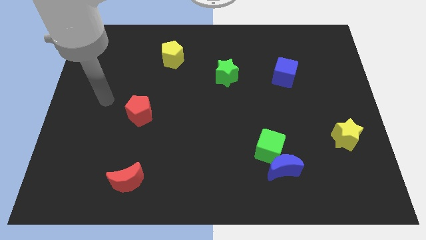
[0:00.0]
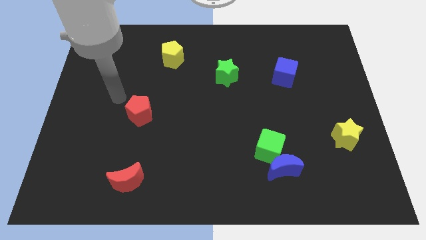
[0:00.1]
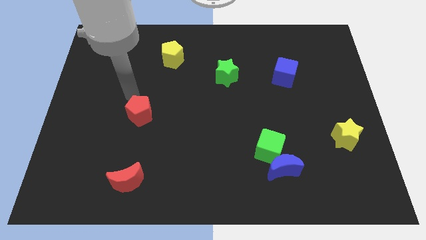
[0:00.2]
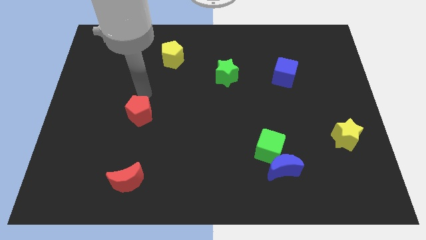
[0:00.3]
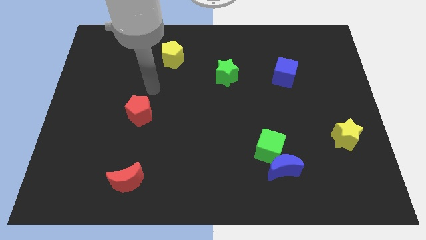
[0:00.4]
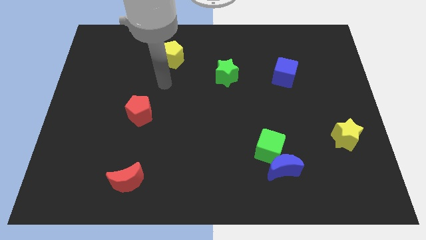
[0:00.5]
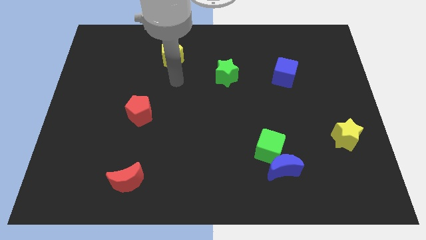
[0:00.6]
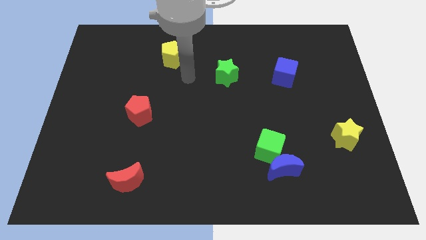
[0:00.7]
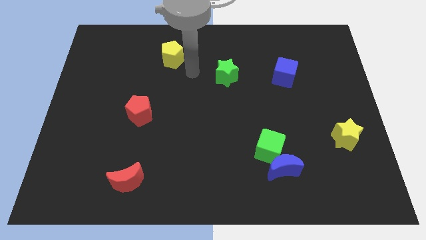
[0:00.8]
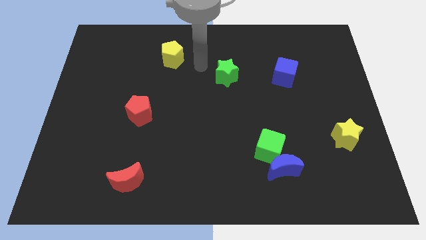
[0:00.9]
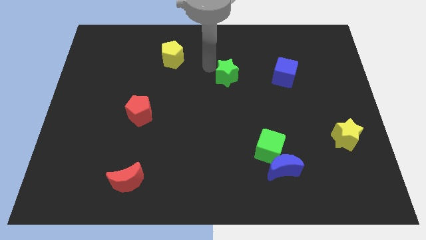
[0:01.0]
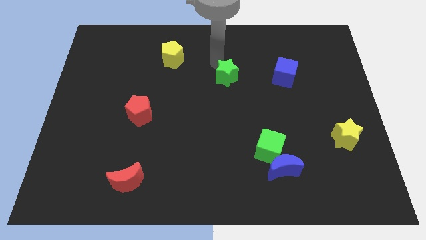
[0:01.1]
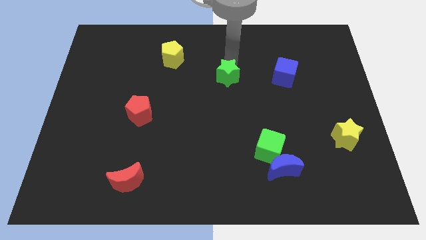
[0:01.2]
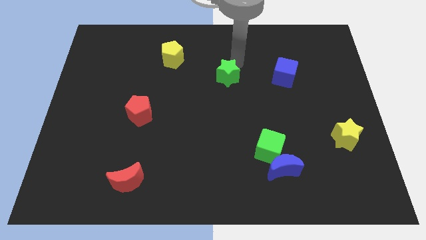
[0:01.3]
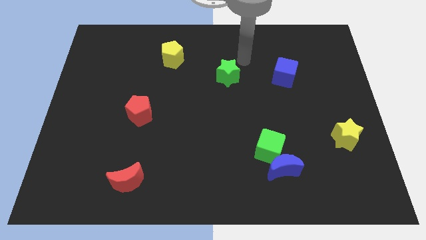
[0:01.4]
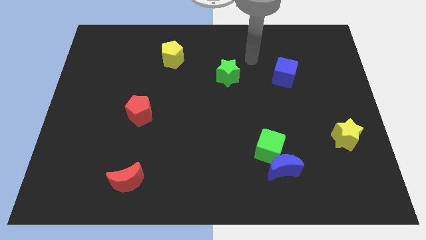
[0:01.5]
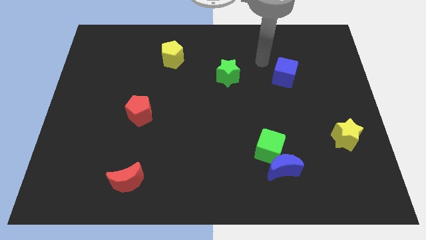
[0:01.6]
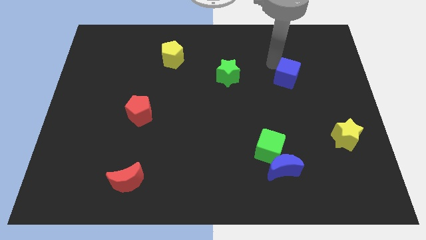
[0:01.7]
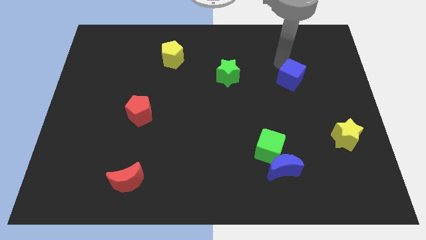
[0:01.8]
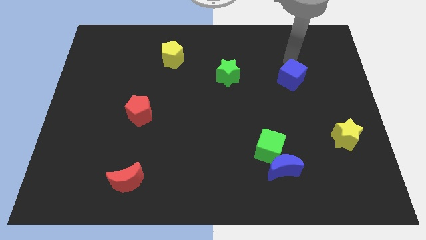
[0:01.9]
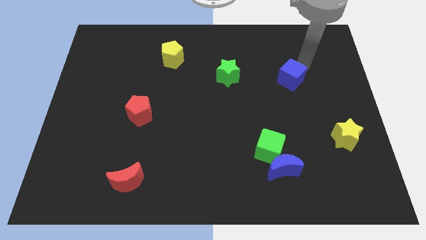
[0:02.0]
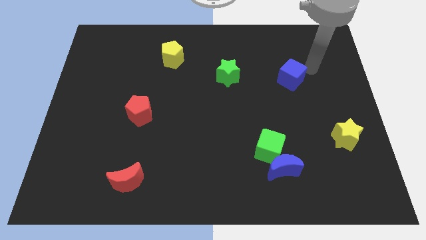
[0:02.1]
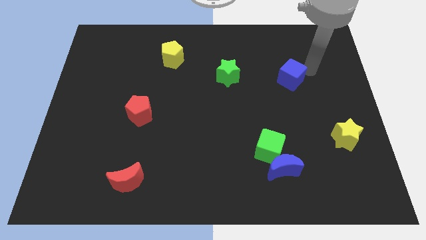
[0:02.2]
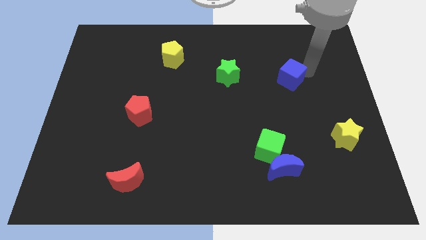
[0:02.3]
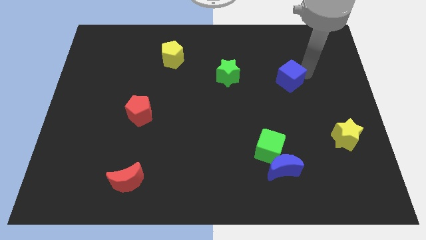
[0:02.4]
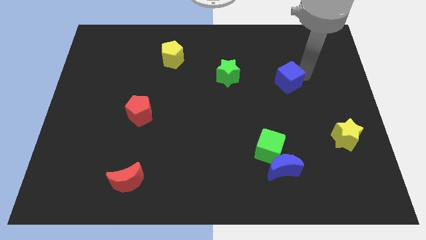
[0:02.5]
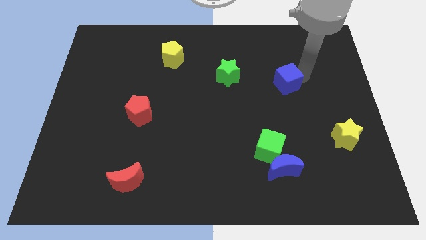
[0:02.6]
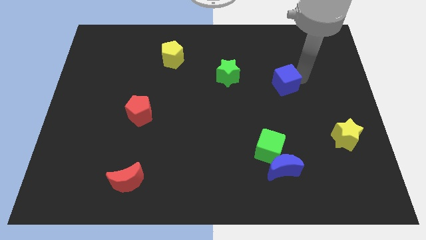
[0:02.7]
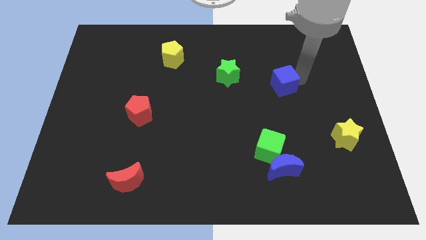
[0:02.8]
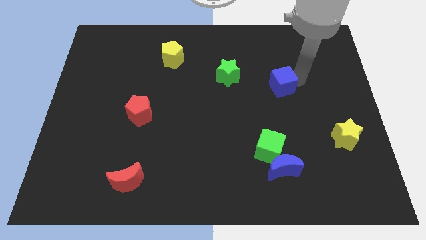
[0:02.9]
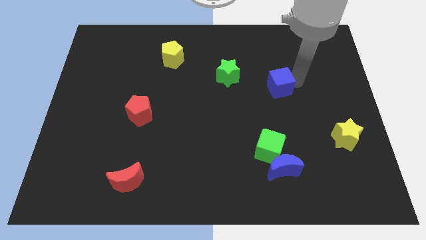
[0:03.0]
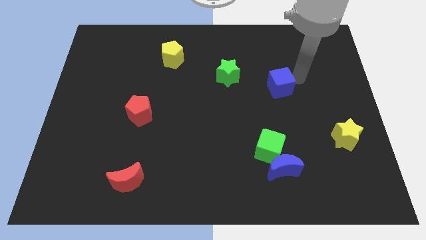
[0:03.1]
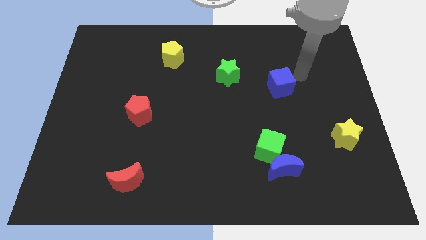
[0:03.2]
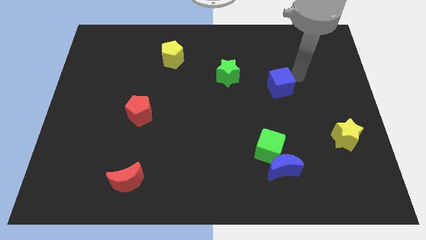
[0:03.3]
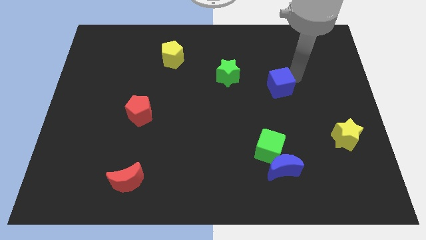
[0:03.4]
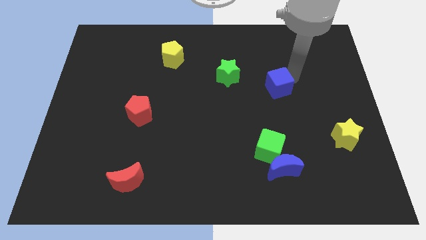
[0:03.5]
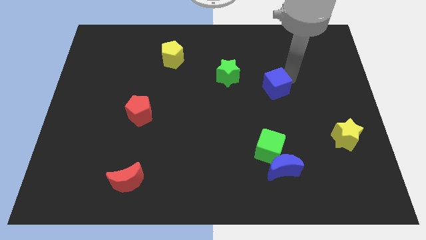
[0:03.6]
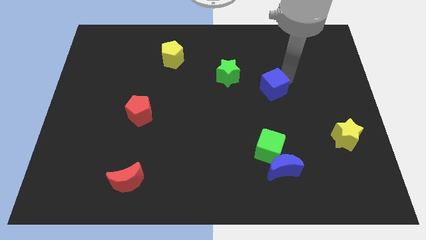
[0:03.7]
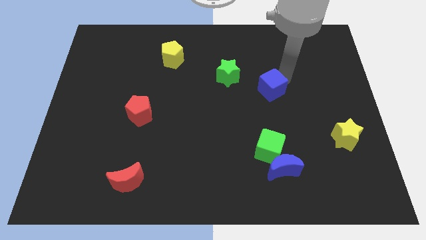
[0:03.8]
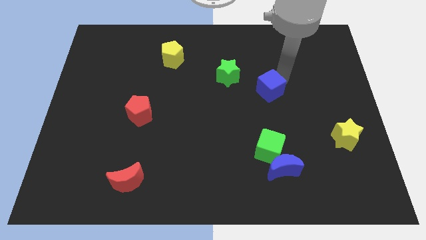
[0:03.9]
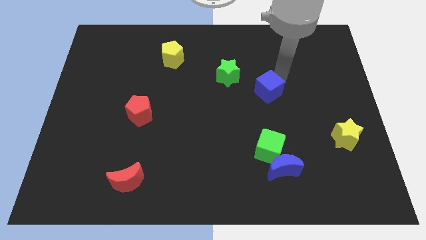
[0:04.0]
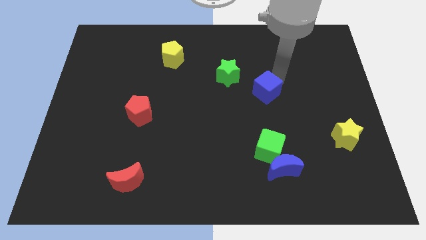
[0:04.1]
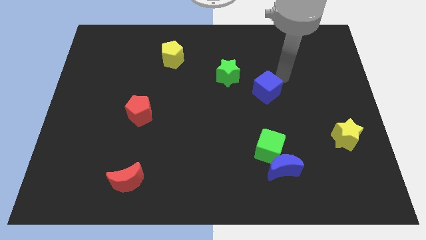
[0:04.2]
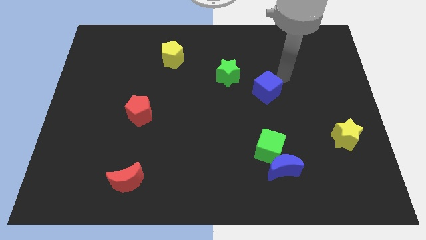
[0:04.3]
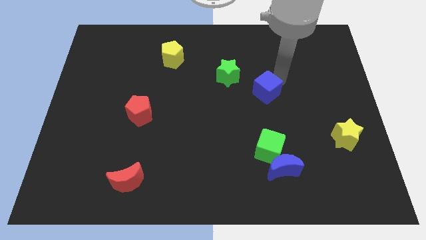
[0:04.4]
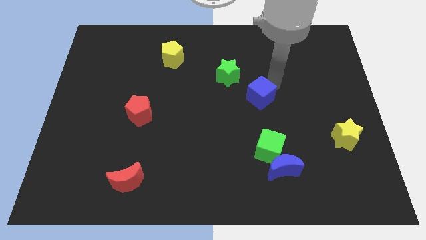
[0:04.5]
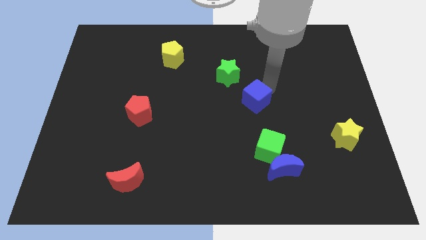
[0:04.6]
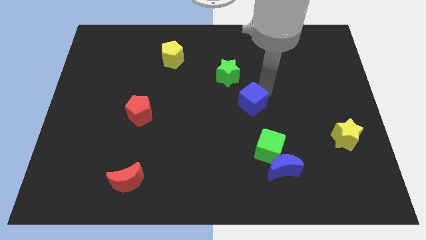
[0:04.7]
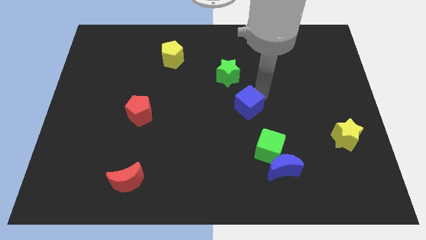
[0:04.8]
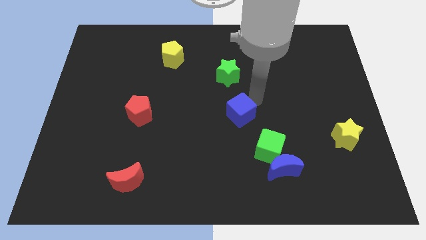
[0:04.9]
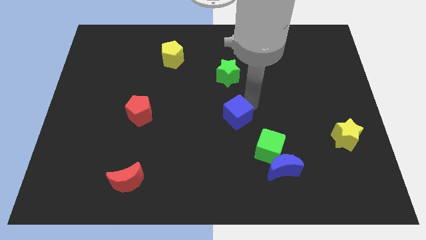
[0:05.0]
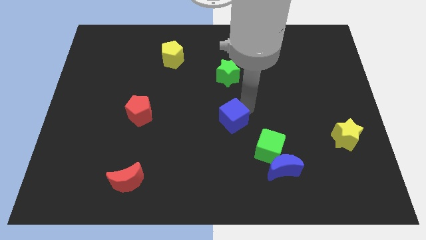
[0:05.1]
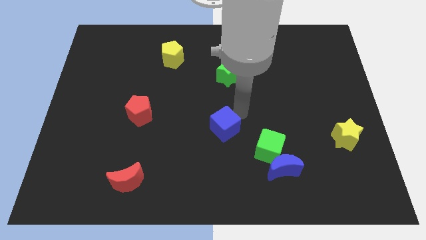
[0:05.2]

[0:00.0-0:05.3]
move the blue cube down and to the left

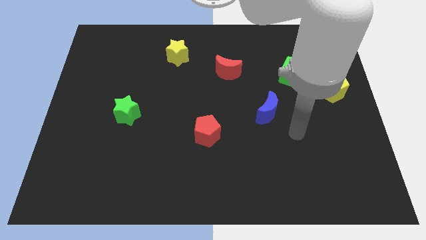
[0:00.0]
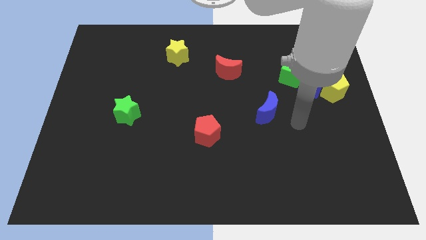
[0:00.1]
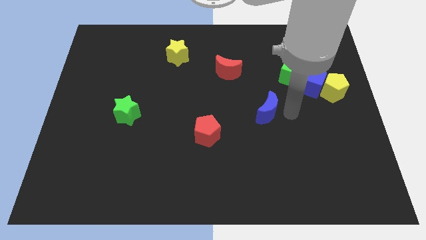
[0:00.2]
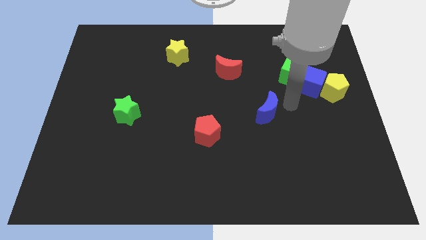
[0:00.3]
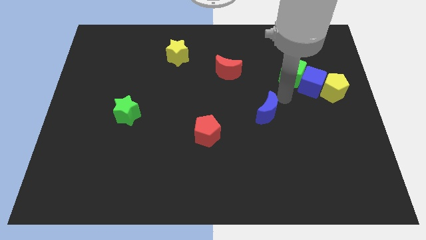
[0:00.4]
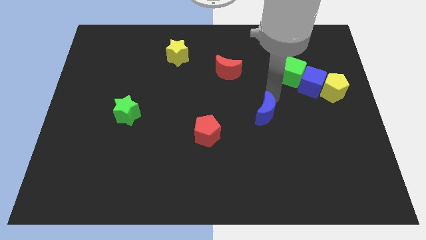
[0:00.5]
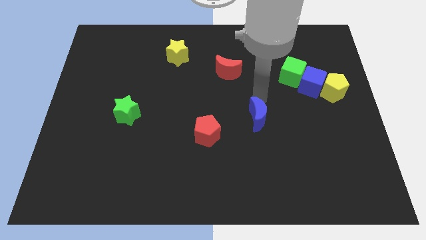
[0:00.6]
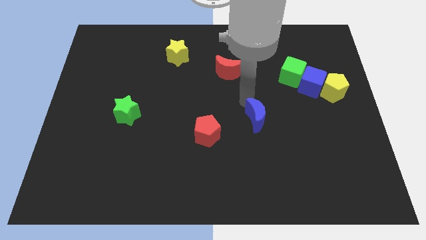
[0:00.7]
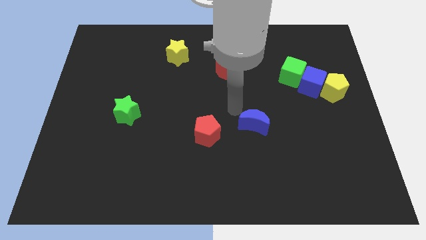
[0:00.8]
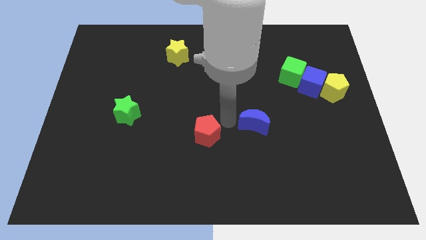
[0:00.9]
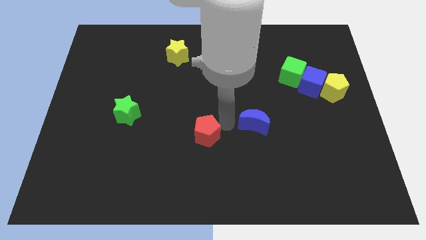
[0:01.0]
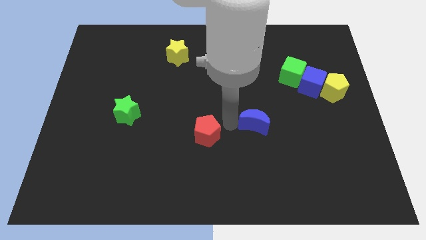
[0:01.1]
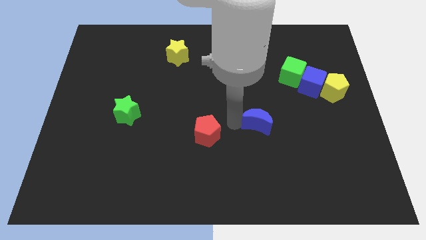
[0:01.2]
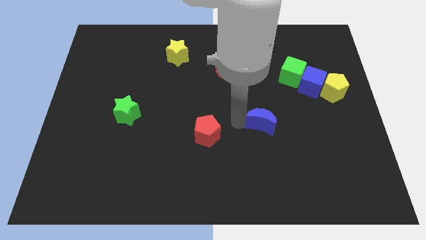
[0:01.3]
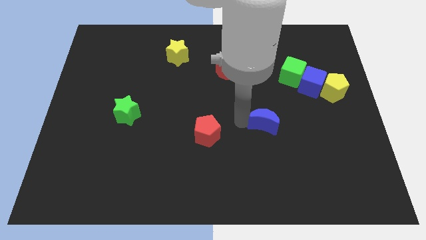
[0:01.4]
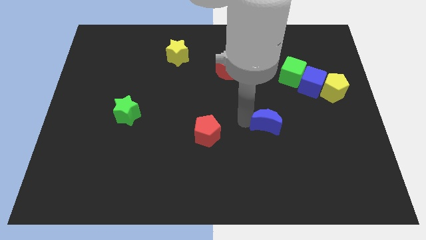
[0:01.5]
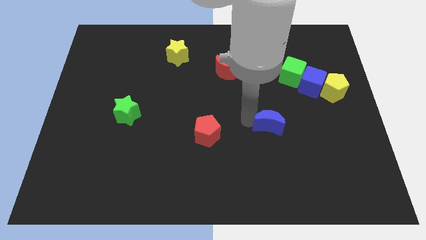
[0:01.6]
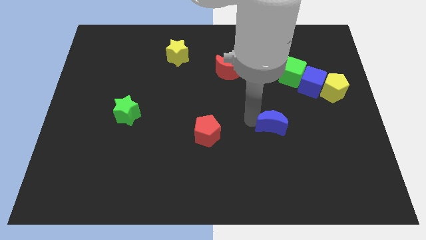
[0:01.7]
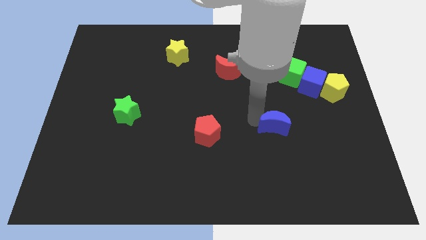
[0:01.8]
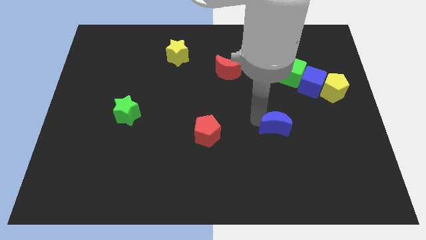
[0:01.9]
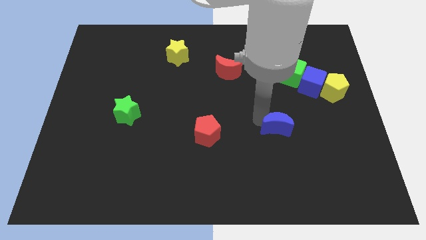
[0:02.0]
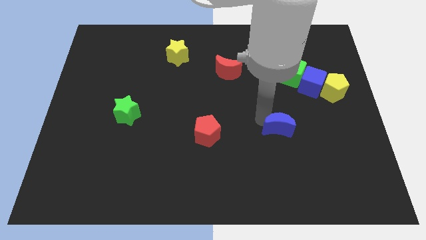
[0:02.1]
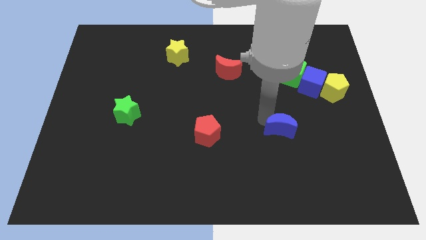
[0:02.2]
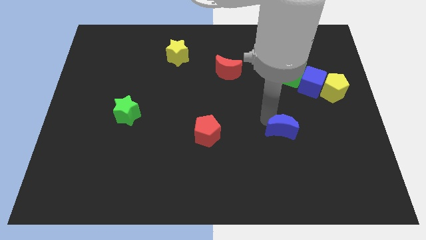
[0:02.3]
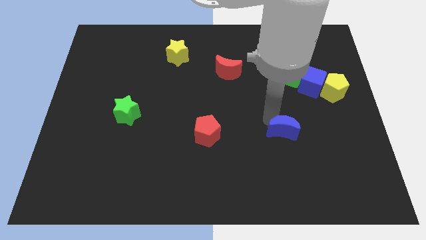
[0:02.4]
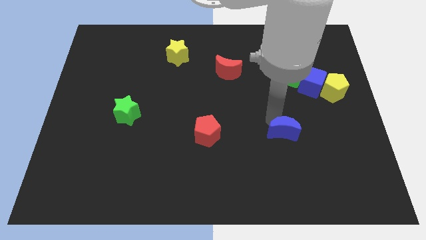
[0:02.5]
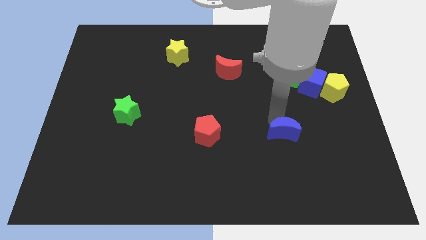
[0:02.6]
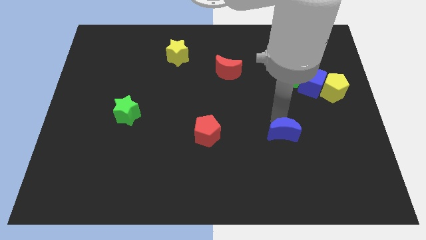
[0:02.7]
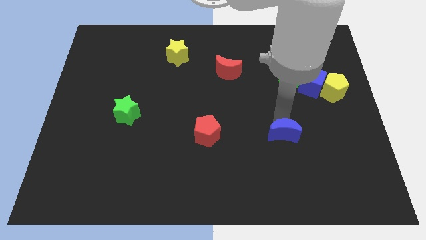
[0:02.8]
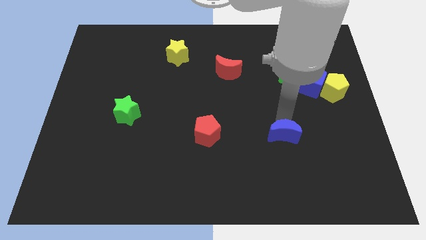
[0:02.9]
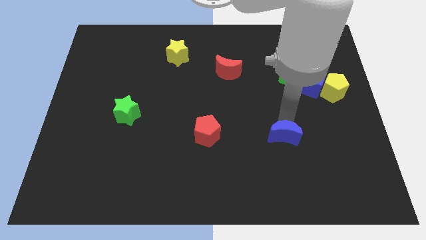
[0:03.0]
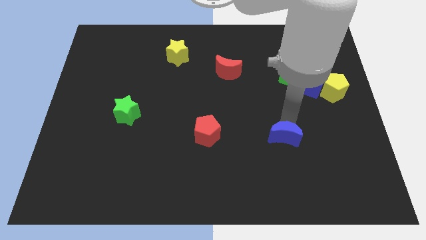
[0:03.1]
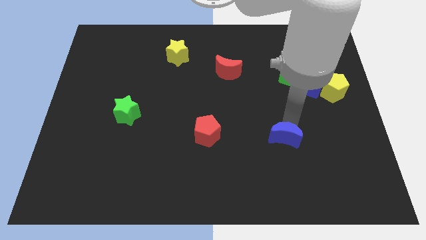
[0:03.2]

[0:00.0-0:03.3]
slightly move the blue moon down and then to the right
